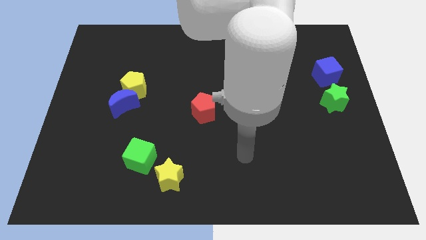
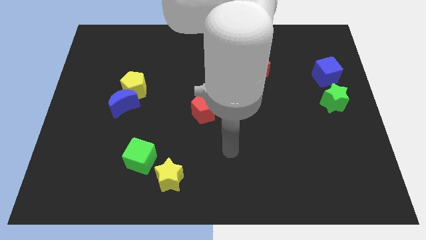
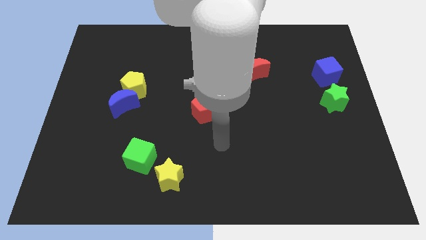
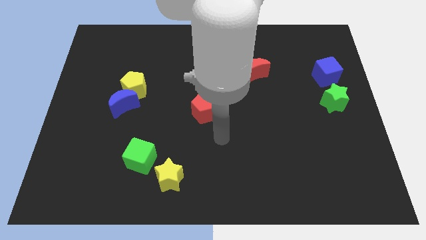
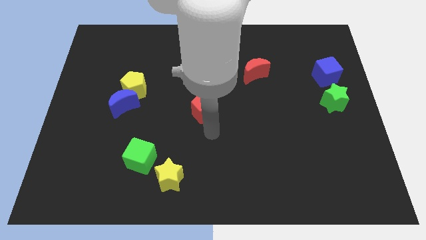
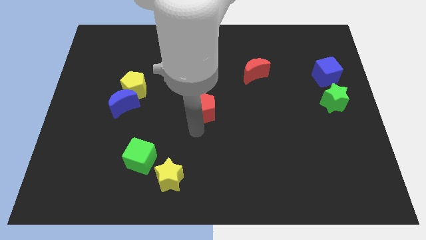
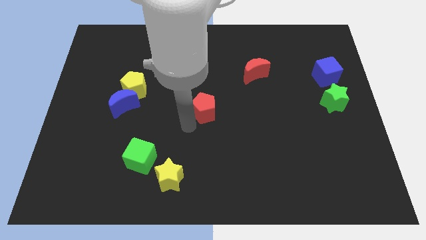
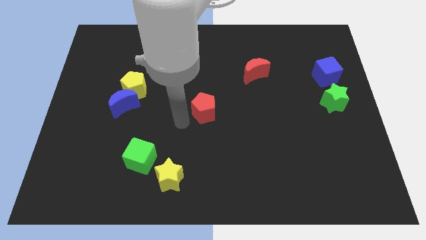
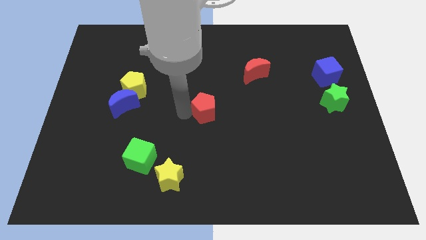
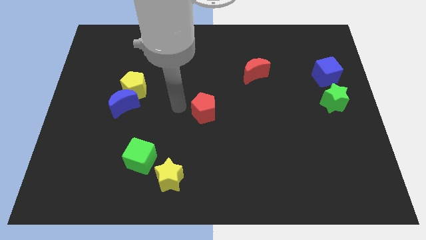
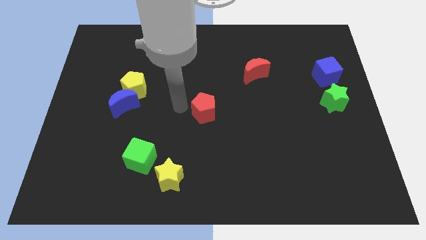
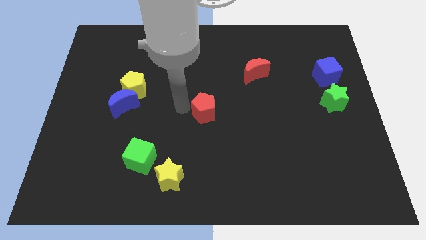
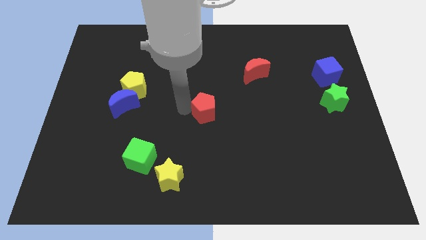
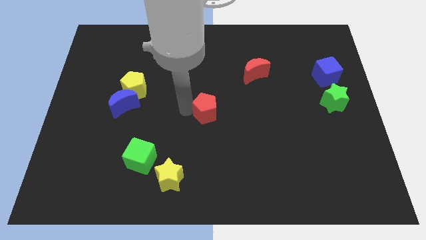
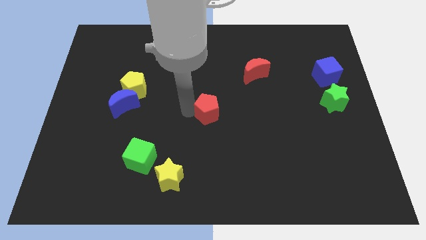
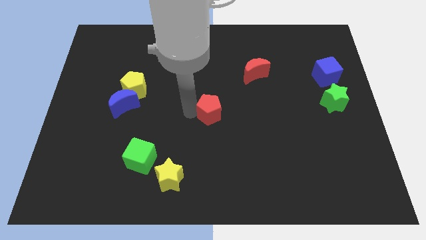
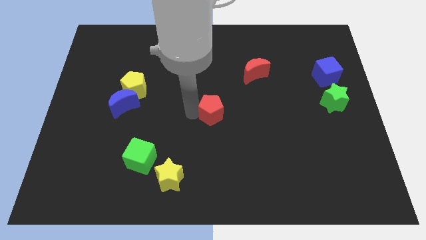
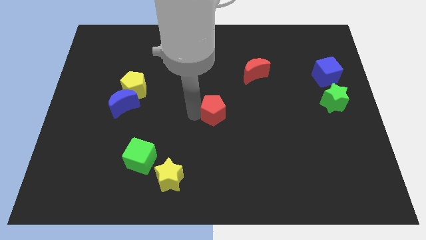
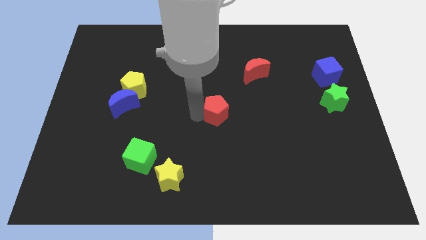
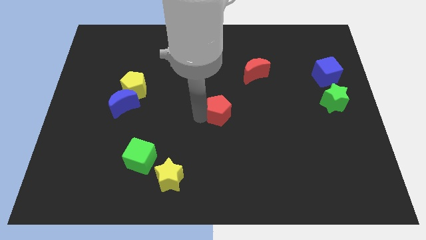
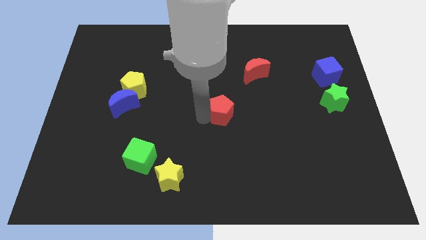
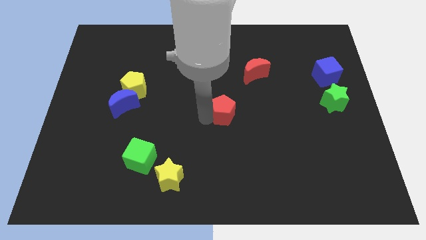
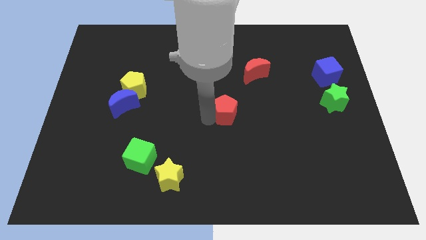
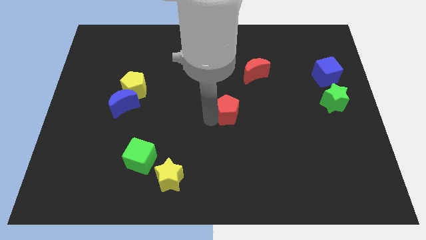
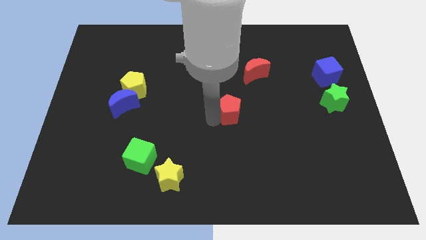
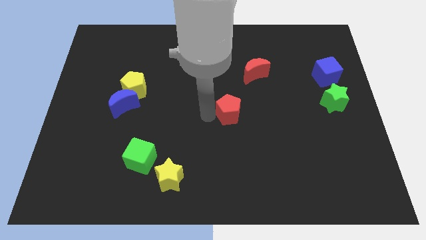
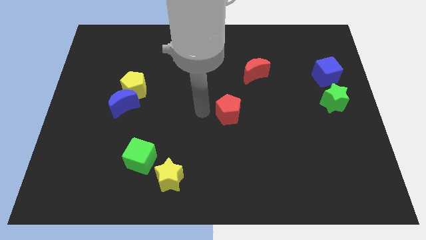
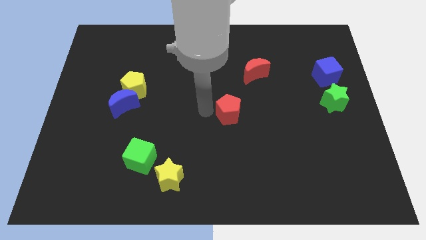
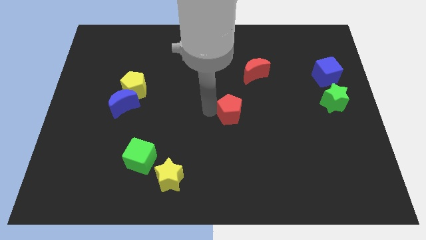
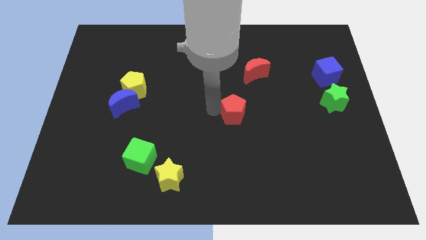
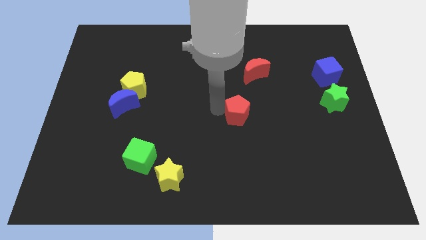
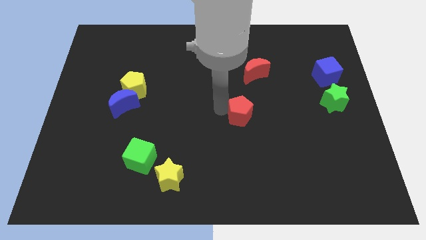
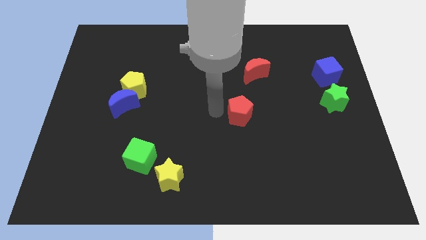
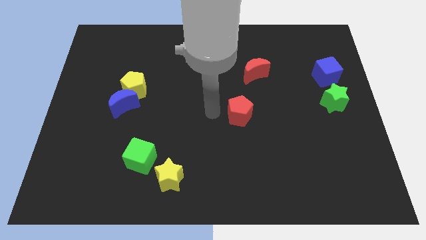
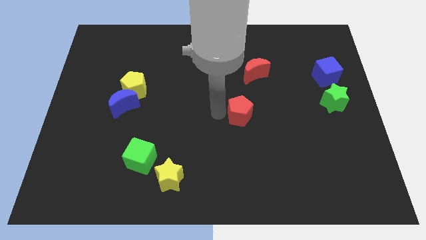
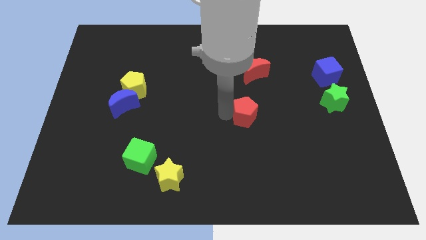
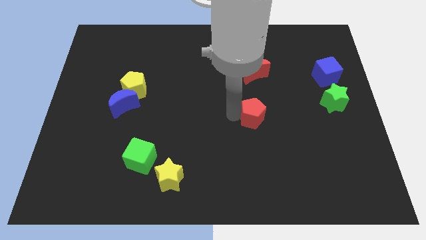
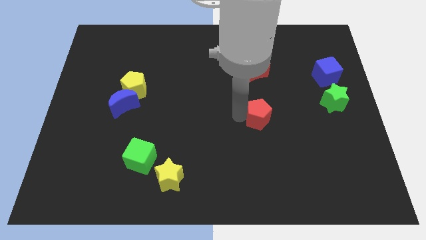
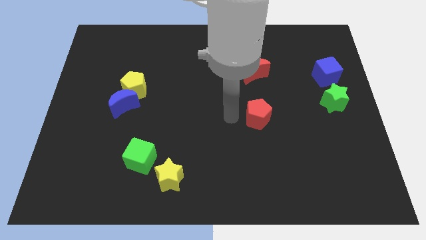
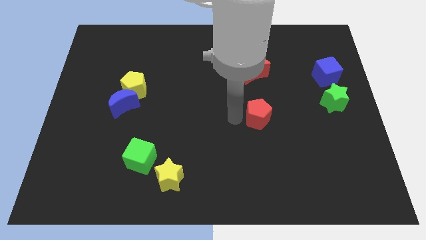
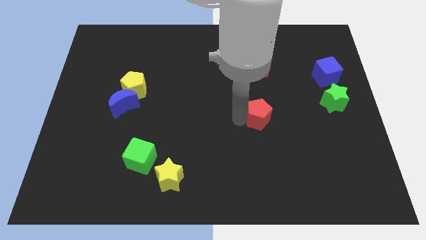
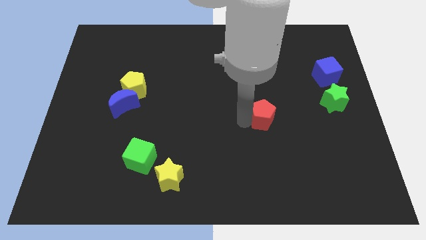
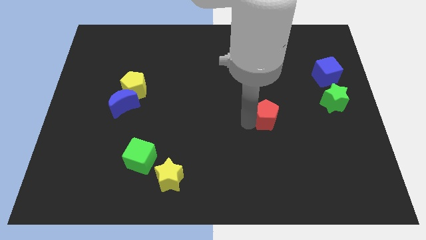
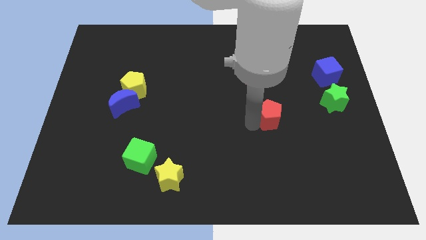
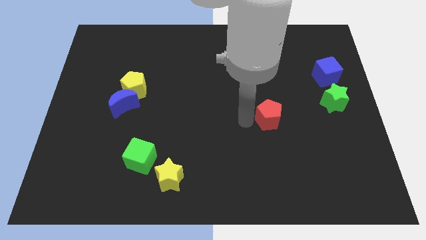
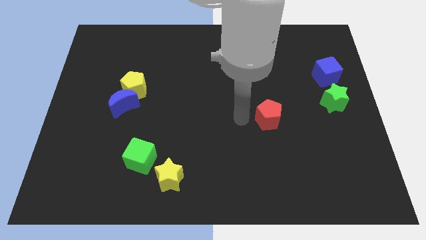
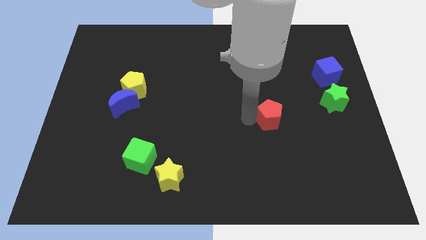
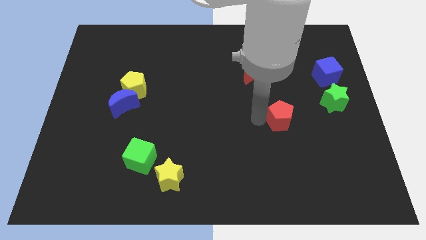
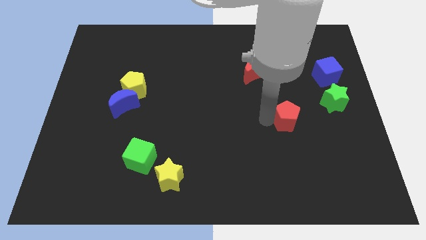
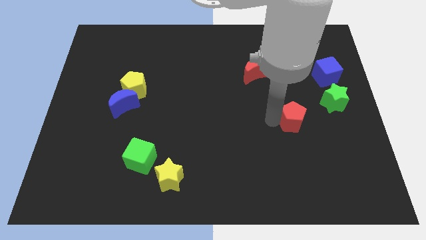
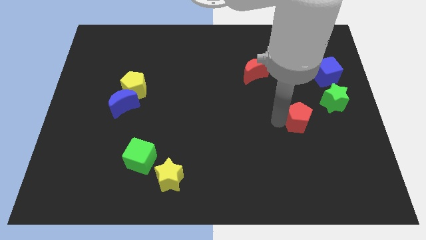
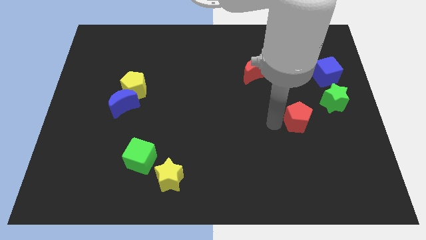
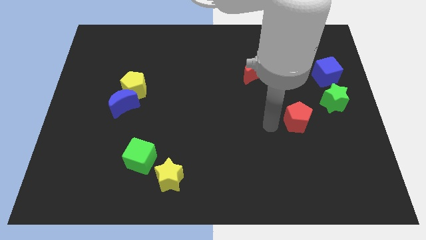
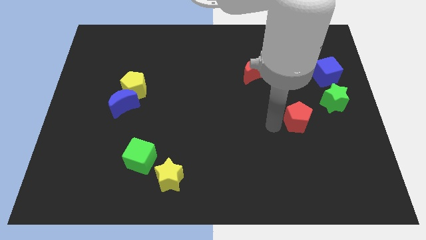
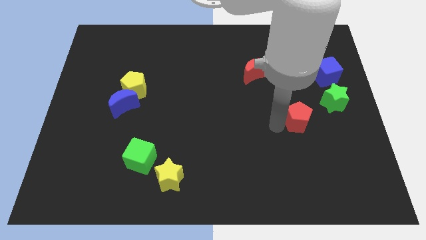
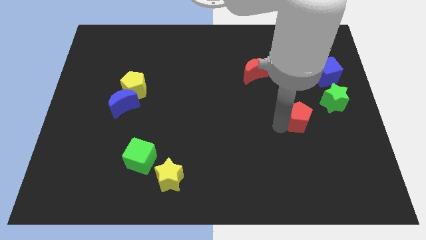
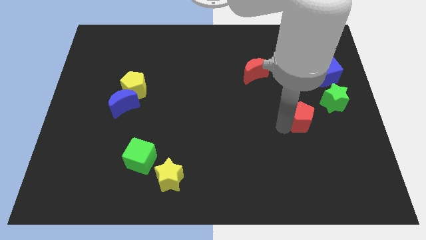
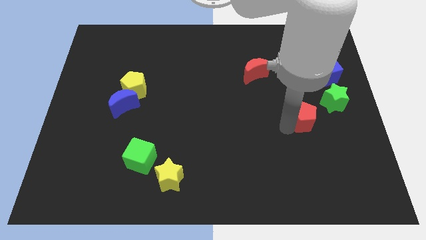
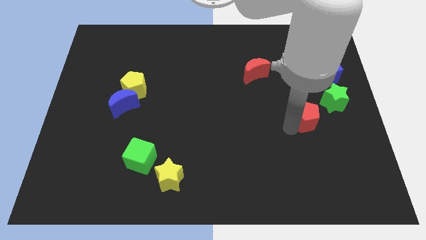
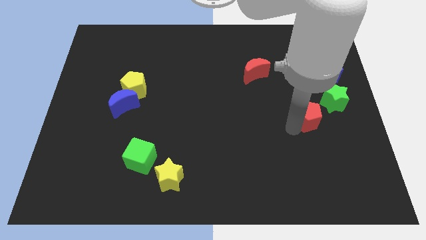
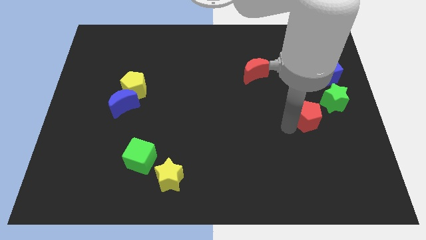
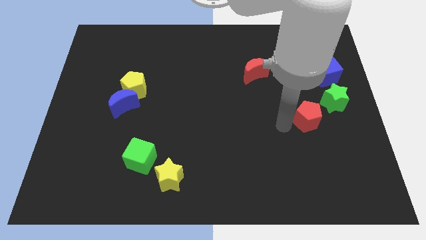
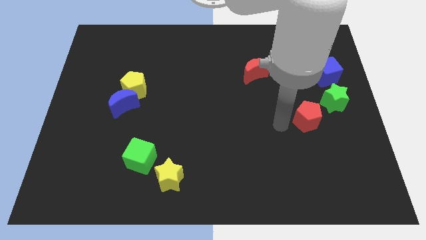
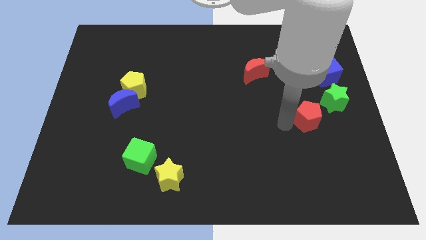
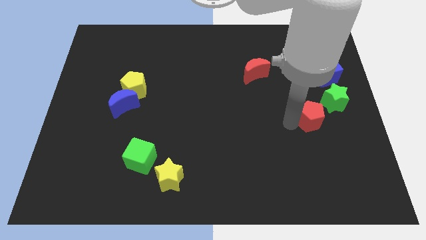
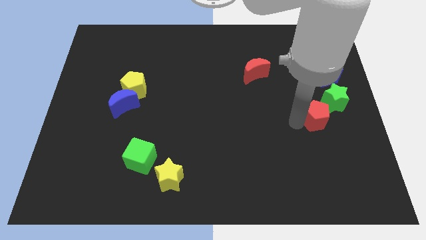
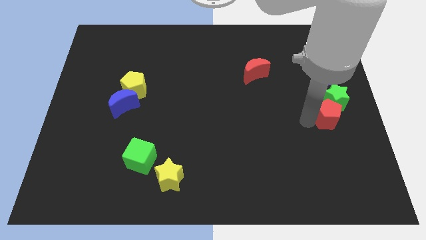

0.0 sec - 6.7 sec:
slide the red pentagon to the right side of the board
